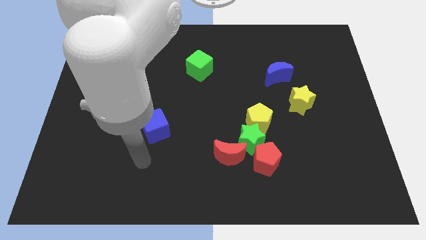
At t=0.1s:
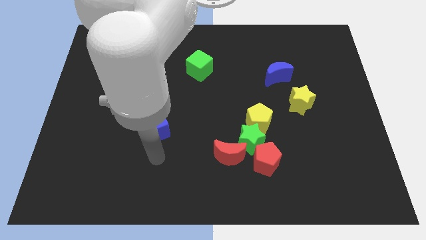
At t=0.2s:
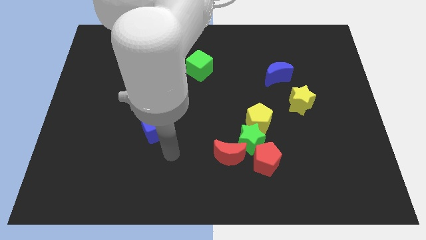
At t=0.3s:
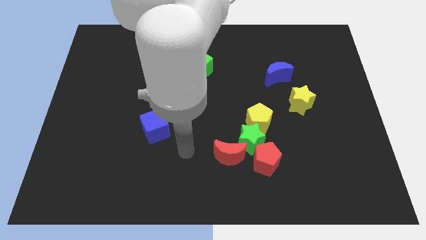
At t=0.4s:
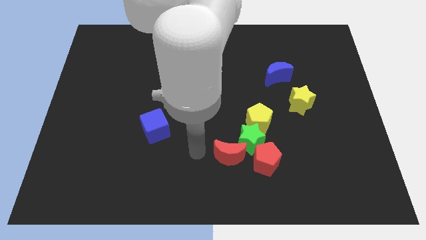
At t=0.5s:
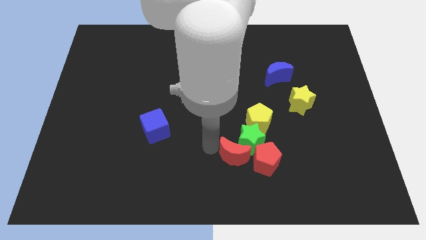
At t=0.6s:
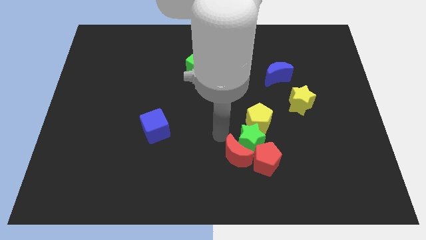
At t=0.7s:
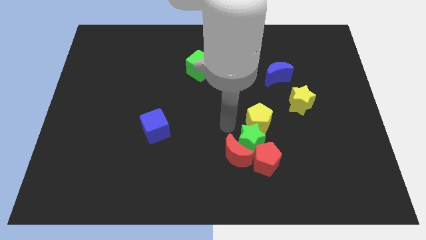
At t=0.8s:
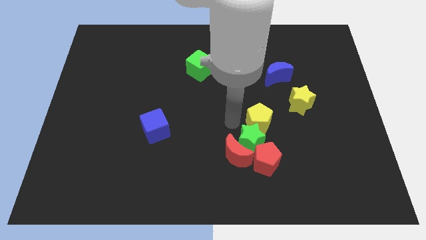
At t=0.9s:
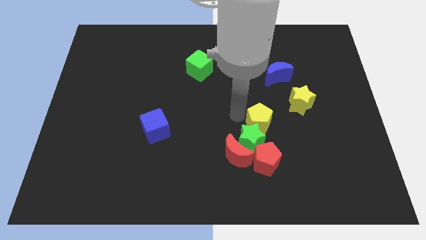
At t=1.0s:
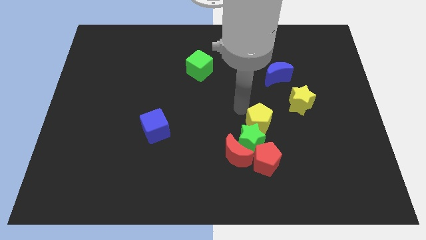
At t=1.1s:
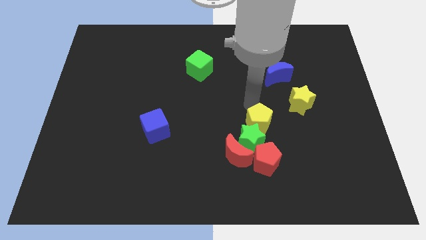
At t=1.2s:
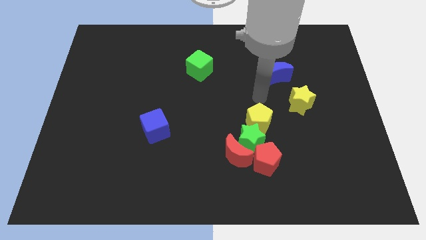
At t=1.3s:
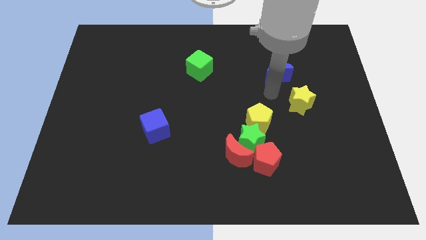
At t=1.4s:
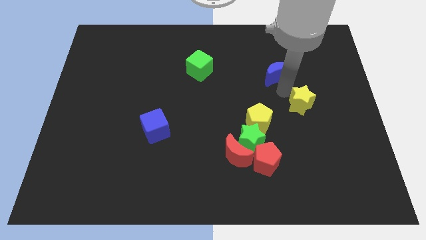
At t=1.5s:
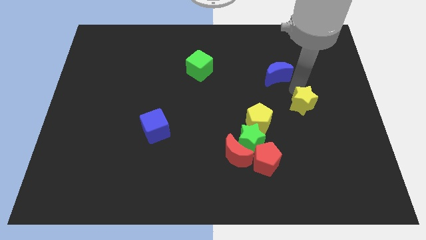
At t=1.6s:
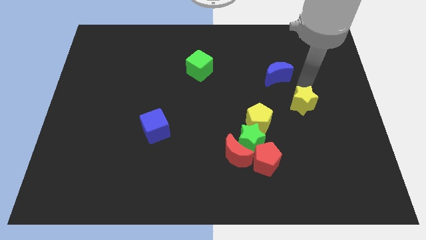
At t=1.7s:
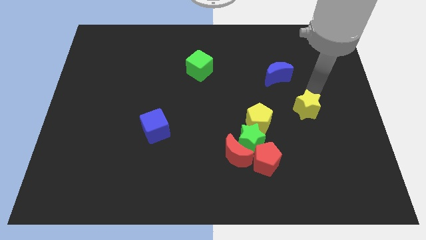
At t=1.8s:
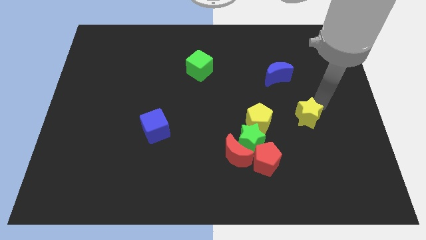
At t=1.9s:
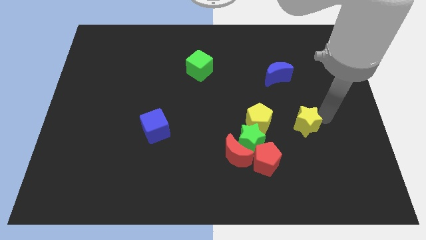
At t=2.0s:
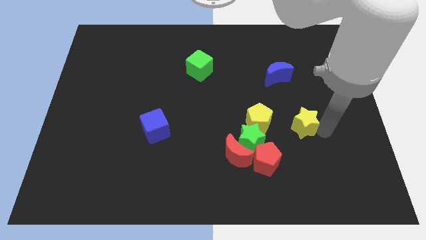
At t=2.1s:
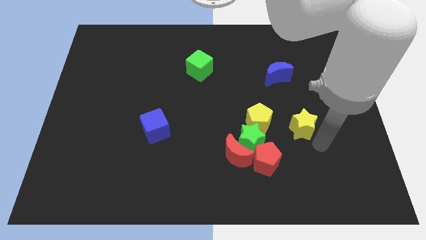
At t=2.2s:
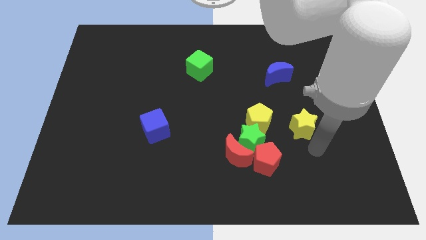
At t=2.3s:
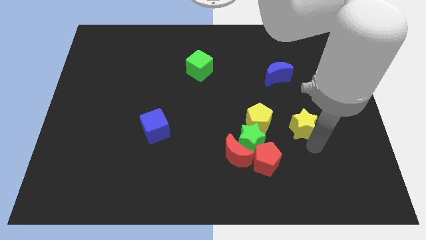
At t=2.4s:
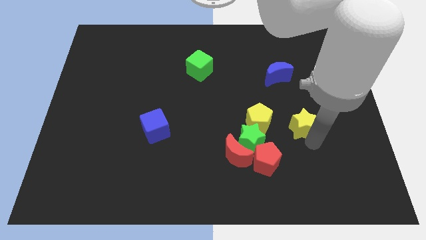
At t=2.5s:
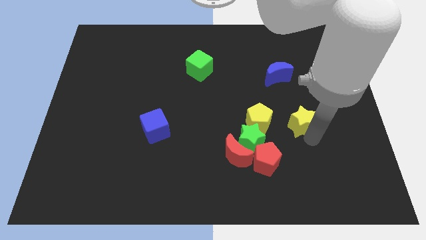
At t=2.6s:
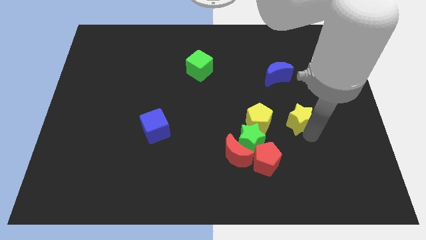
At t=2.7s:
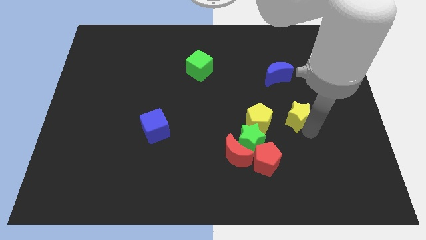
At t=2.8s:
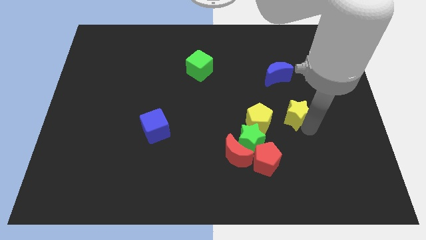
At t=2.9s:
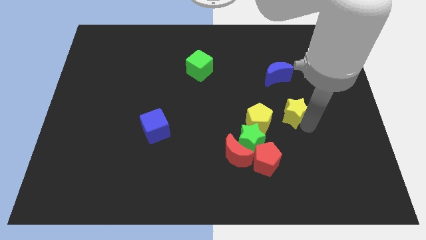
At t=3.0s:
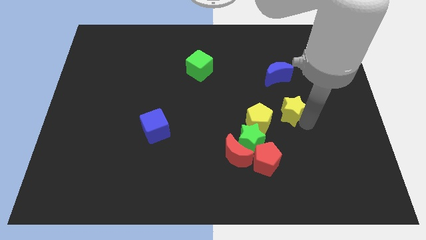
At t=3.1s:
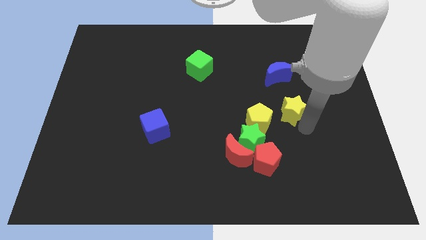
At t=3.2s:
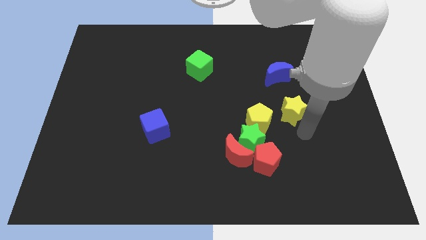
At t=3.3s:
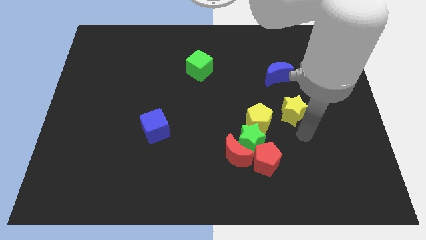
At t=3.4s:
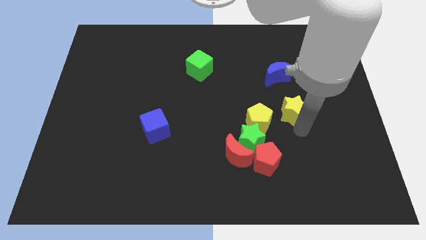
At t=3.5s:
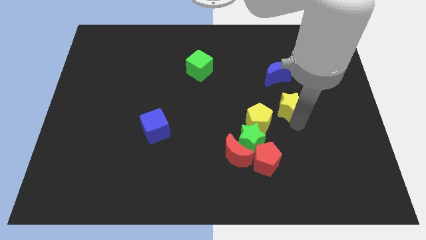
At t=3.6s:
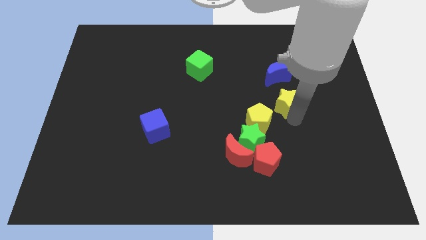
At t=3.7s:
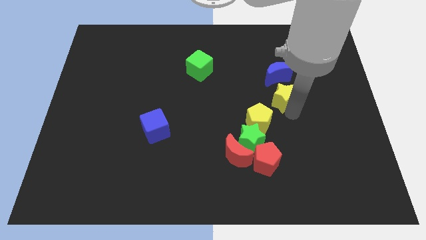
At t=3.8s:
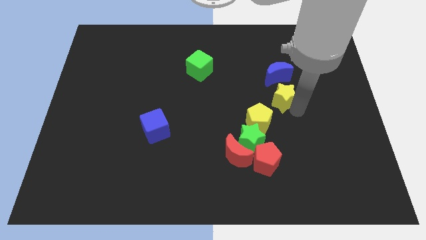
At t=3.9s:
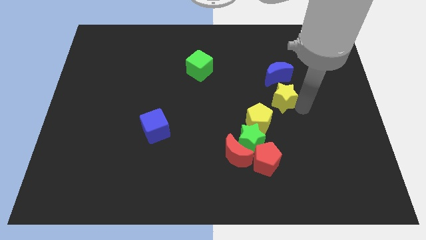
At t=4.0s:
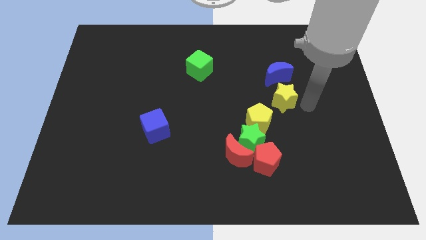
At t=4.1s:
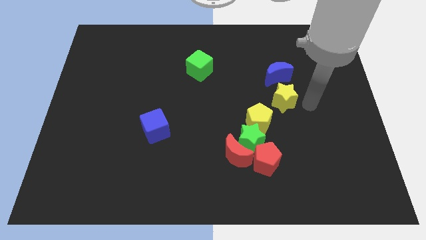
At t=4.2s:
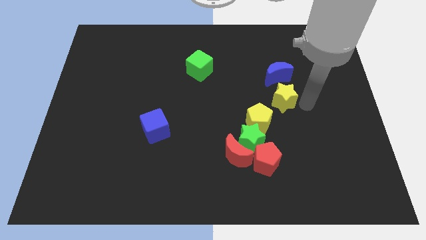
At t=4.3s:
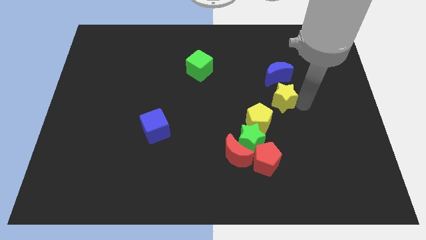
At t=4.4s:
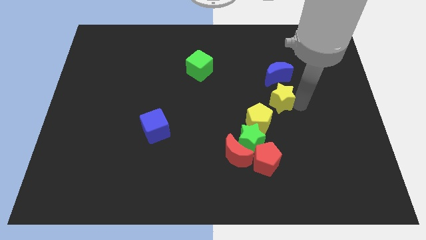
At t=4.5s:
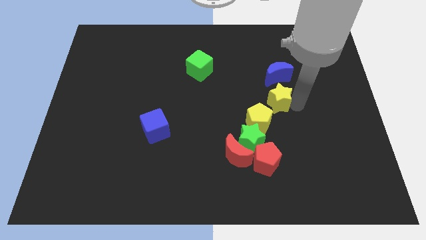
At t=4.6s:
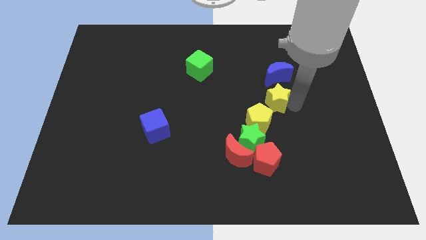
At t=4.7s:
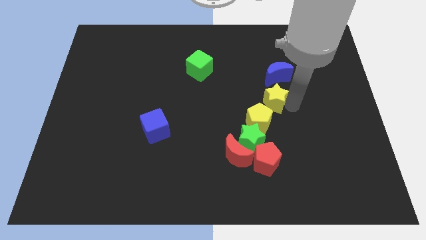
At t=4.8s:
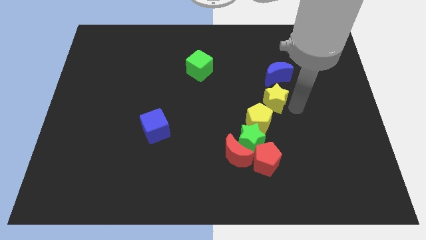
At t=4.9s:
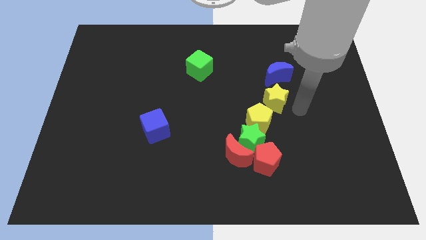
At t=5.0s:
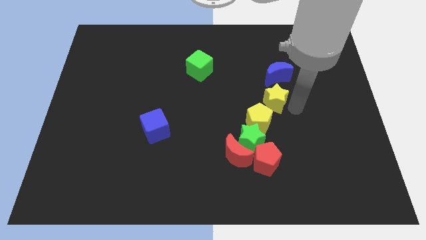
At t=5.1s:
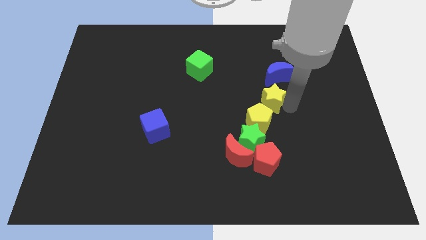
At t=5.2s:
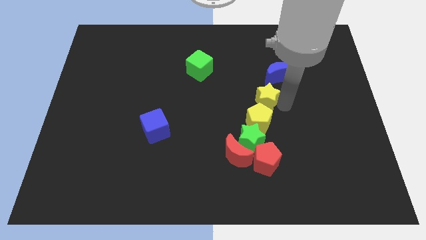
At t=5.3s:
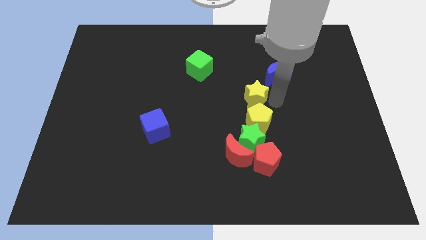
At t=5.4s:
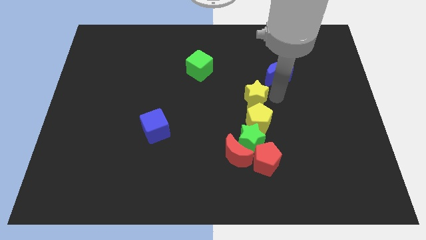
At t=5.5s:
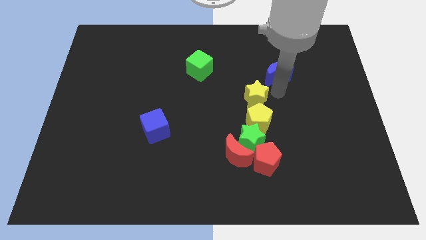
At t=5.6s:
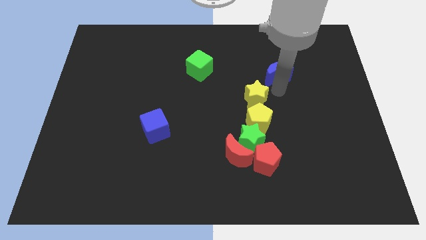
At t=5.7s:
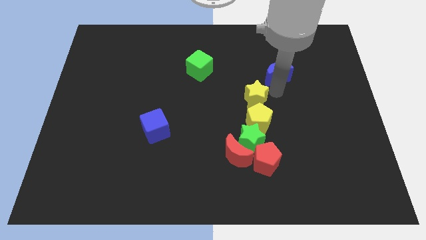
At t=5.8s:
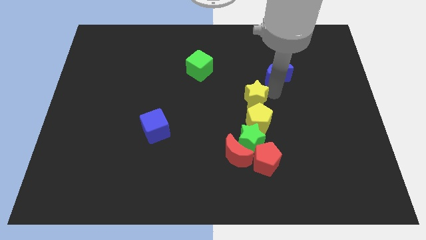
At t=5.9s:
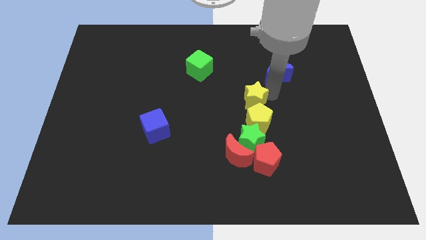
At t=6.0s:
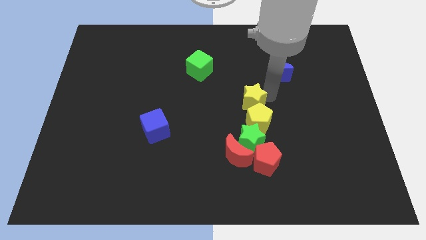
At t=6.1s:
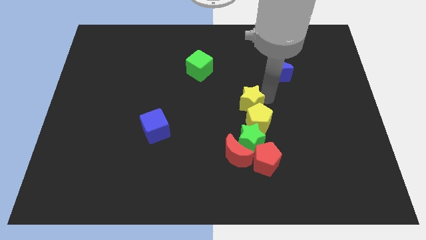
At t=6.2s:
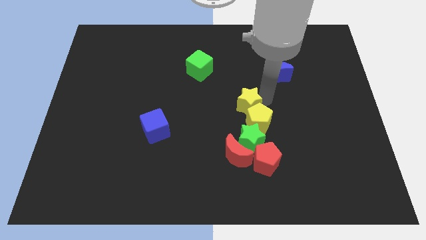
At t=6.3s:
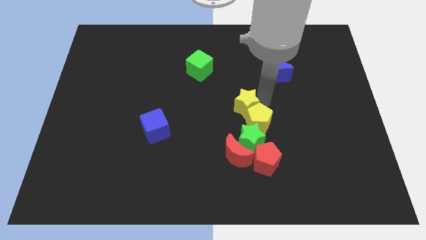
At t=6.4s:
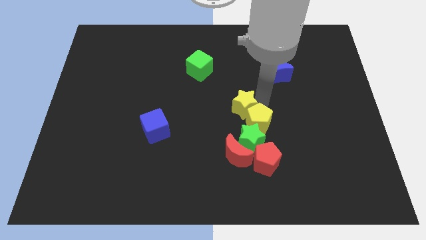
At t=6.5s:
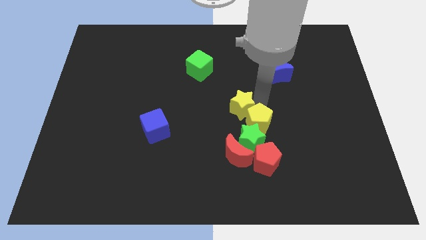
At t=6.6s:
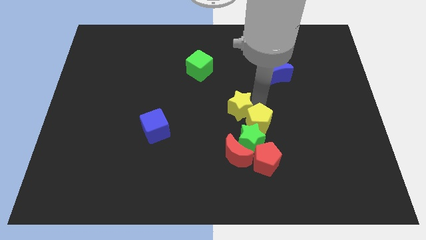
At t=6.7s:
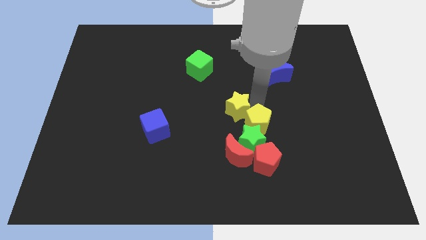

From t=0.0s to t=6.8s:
move the yellow star diagonally up and to the left of the green star

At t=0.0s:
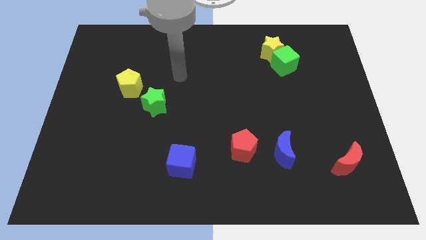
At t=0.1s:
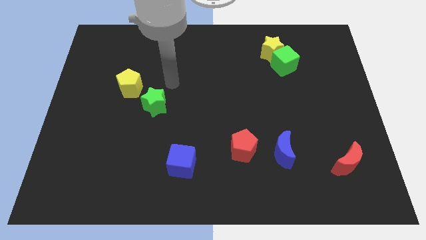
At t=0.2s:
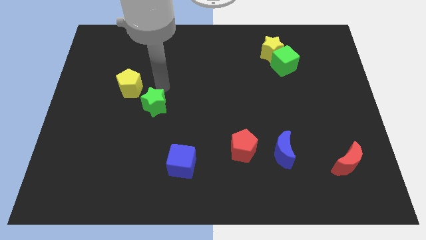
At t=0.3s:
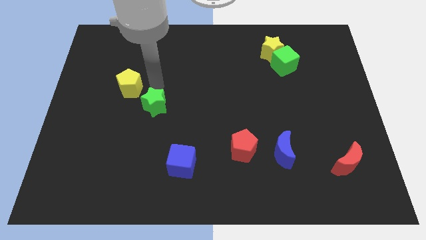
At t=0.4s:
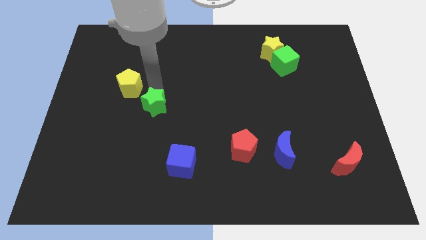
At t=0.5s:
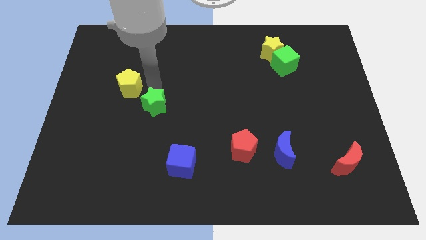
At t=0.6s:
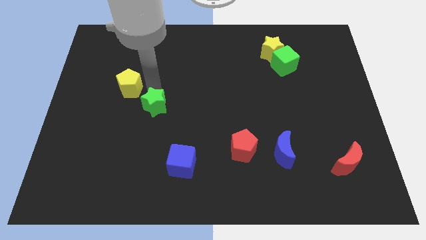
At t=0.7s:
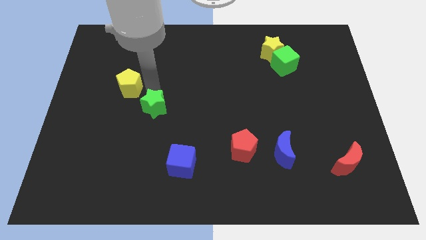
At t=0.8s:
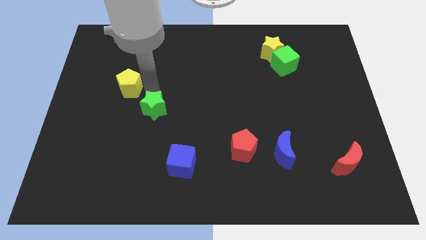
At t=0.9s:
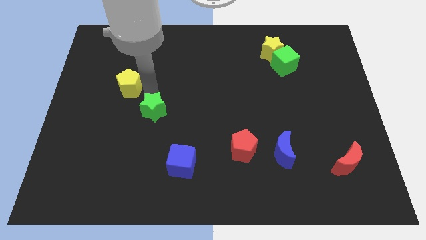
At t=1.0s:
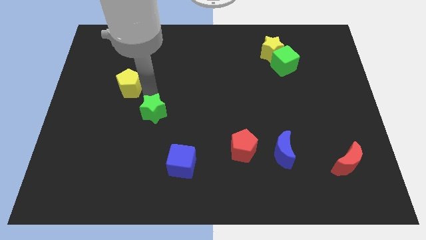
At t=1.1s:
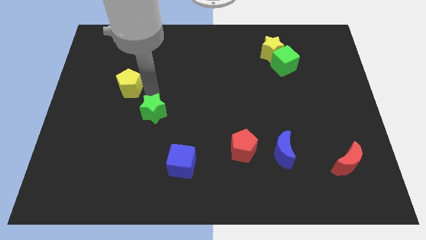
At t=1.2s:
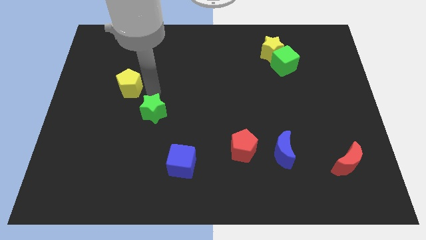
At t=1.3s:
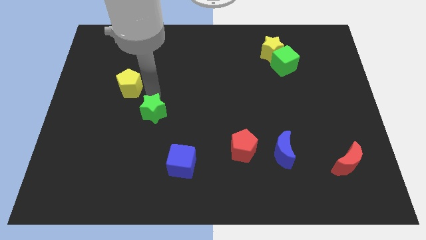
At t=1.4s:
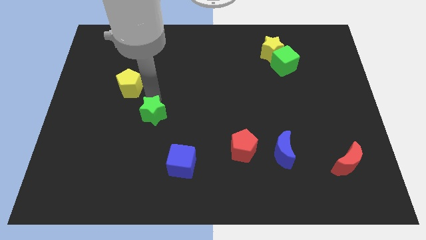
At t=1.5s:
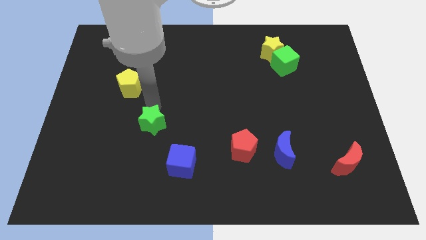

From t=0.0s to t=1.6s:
push the green star to the top left of the blue cube

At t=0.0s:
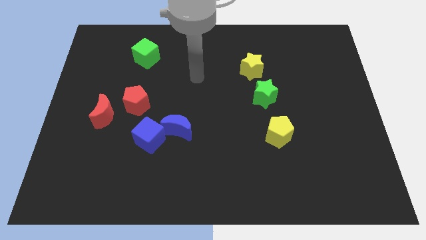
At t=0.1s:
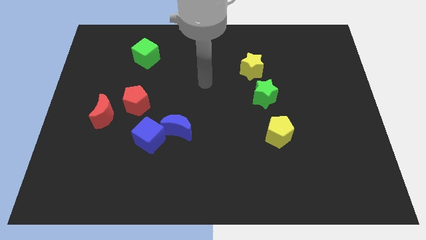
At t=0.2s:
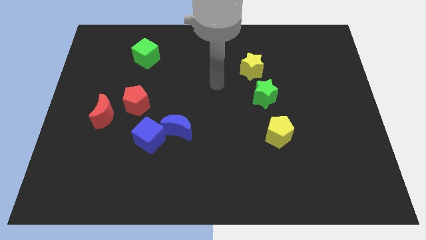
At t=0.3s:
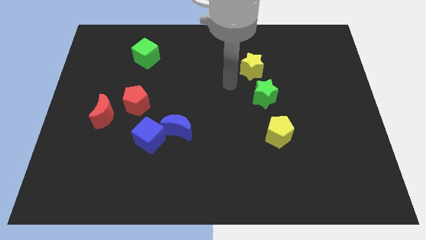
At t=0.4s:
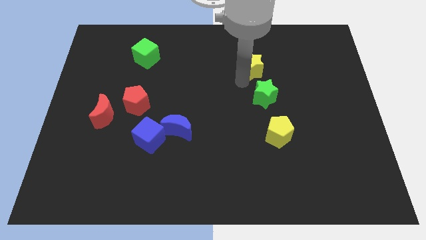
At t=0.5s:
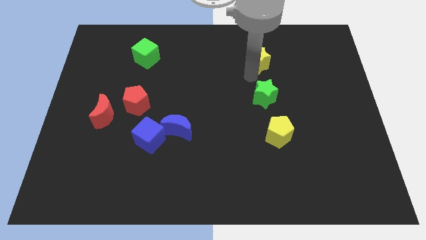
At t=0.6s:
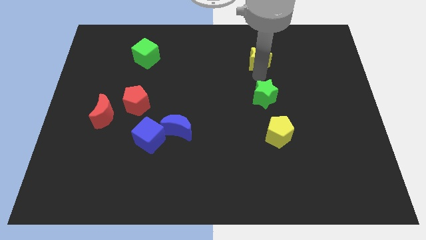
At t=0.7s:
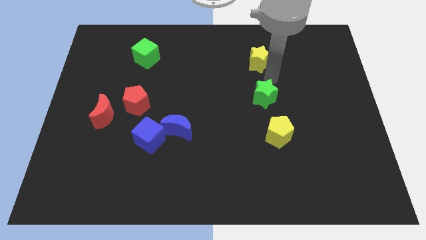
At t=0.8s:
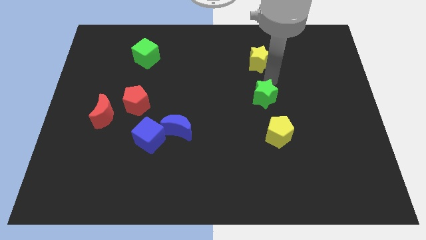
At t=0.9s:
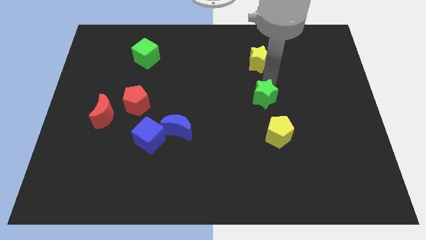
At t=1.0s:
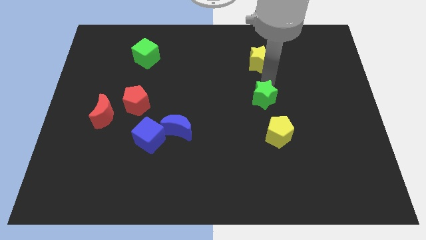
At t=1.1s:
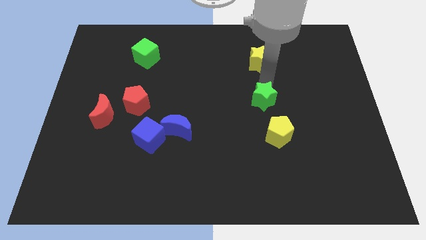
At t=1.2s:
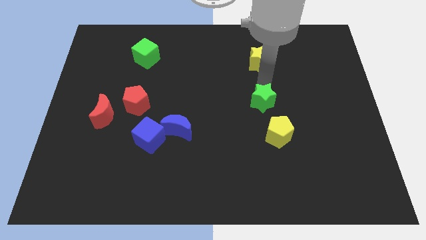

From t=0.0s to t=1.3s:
put the green star to the top left of the yellow pentagon
